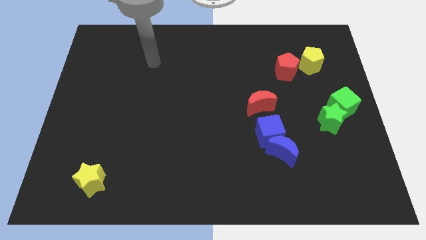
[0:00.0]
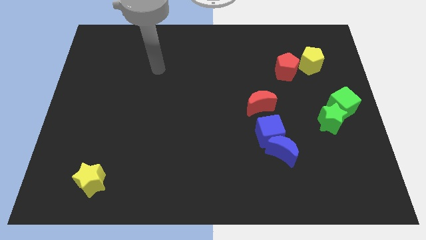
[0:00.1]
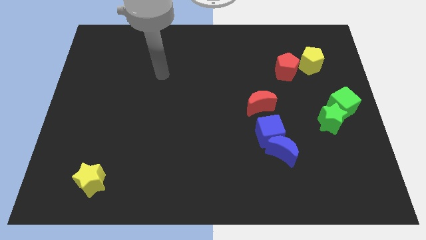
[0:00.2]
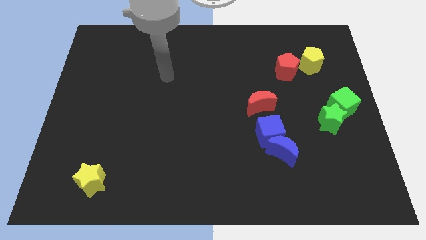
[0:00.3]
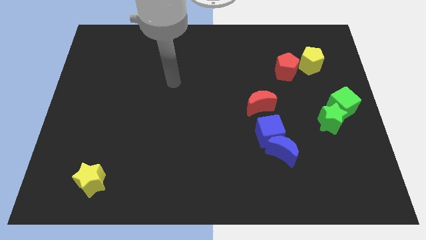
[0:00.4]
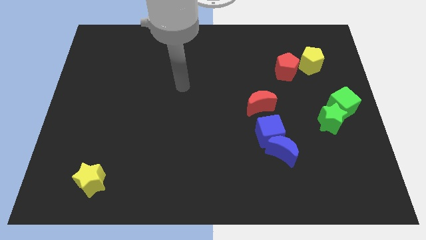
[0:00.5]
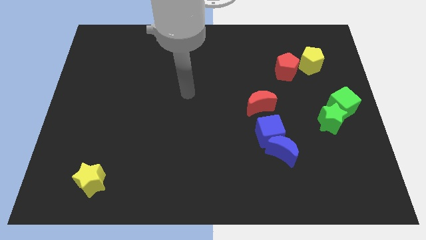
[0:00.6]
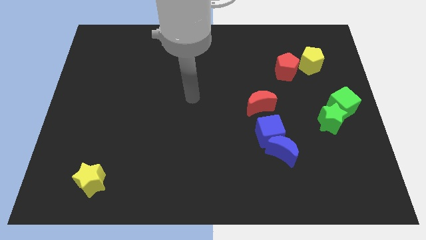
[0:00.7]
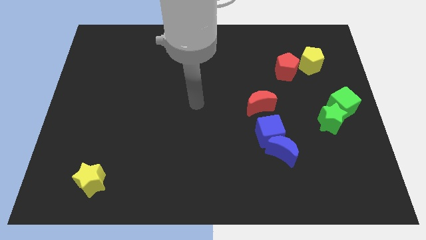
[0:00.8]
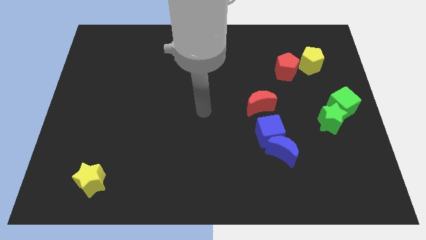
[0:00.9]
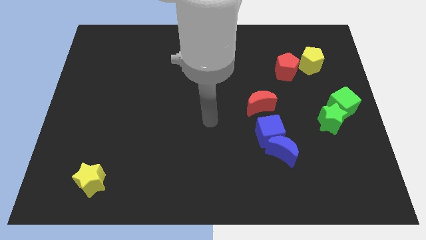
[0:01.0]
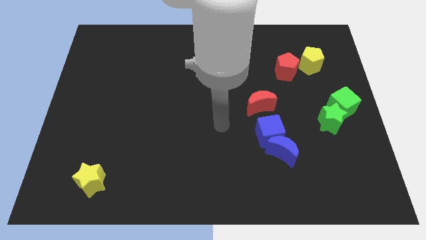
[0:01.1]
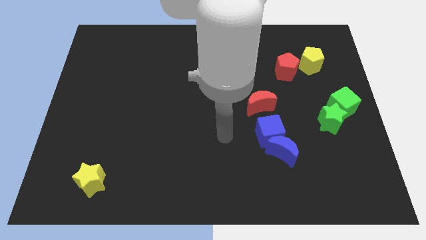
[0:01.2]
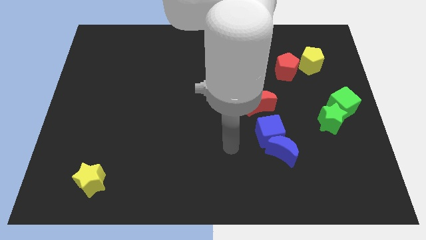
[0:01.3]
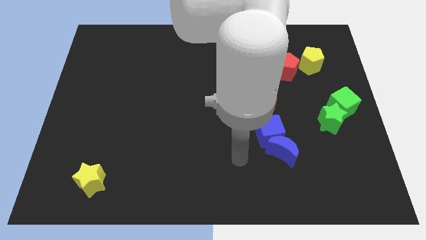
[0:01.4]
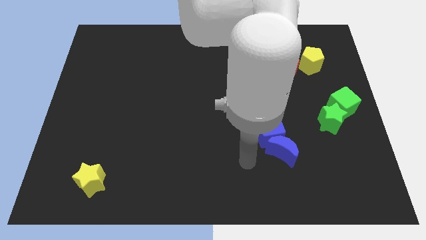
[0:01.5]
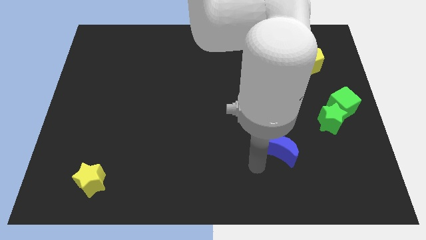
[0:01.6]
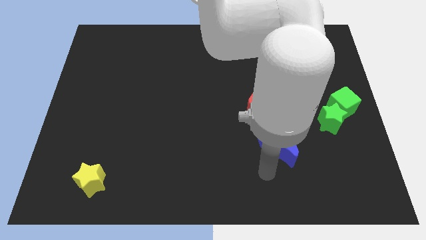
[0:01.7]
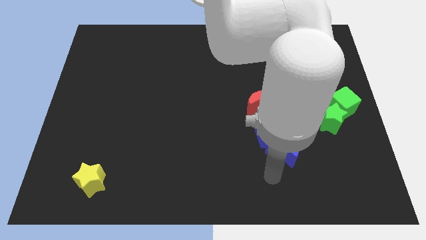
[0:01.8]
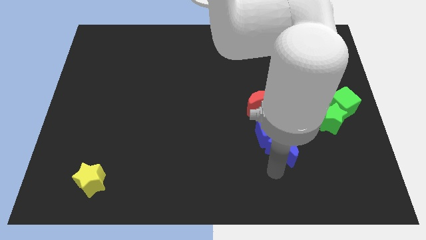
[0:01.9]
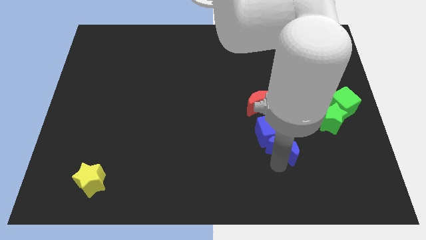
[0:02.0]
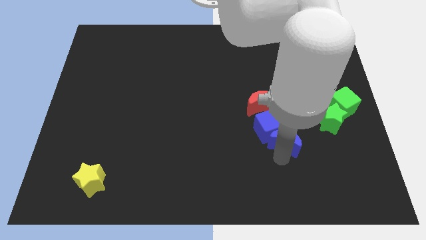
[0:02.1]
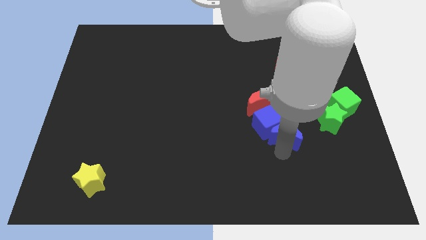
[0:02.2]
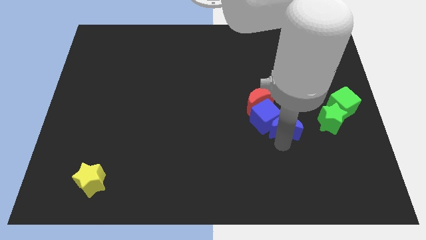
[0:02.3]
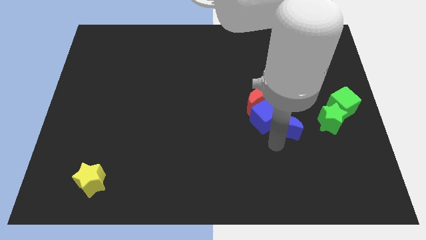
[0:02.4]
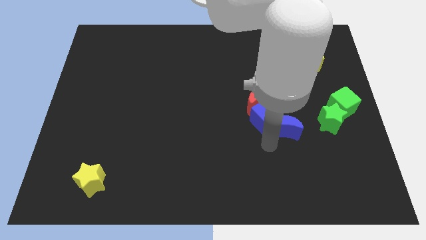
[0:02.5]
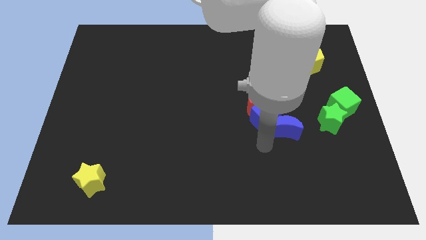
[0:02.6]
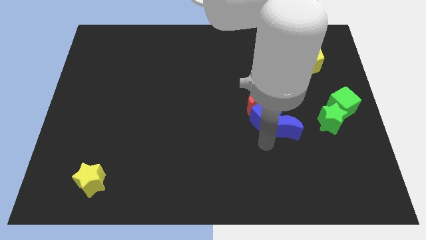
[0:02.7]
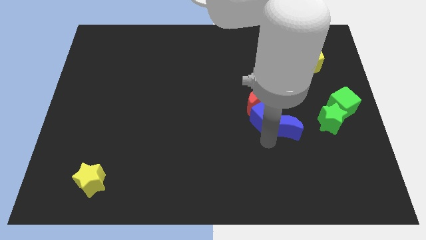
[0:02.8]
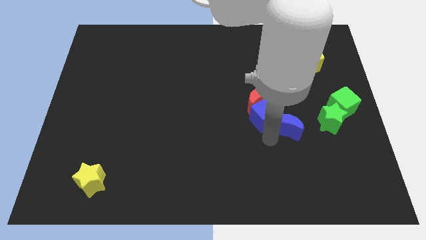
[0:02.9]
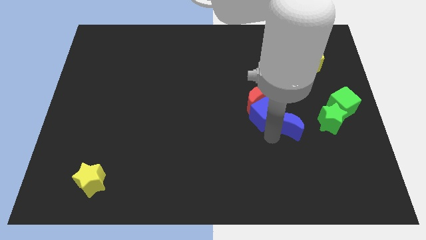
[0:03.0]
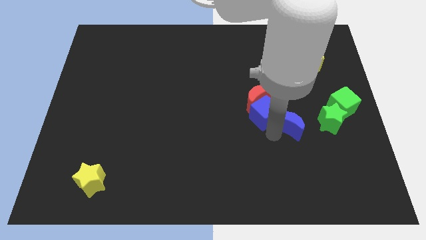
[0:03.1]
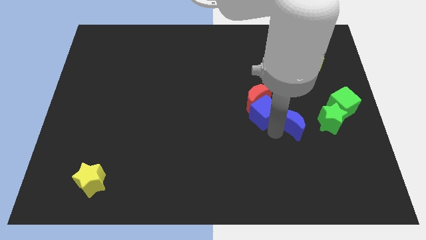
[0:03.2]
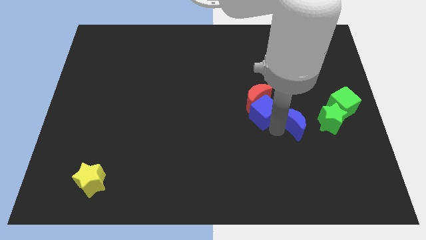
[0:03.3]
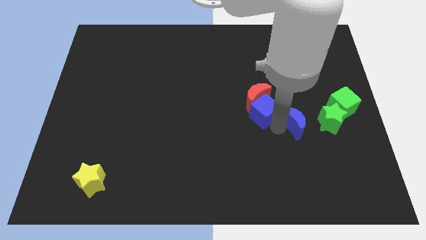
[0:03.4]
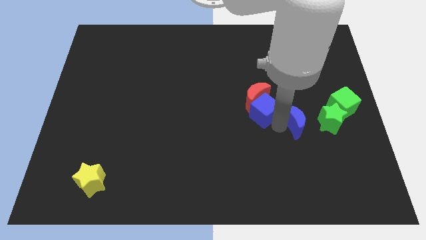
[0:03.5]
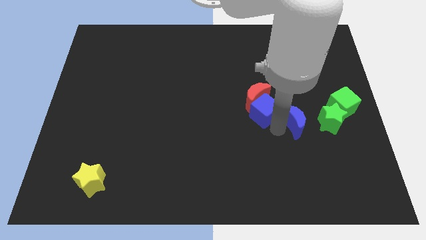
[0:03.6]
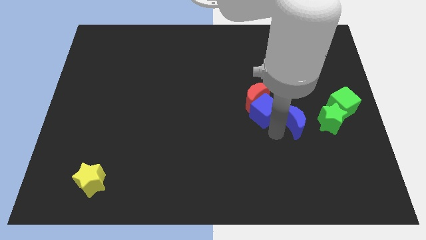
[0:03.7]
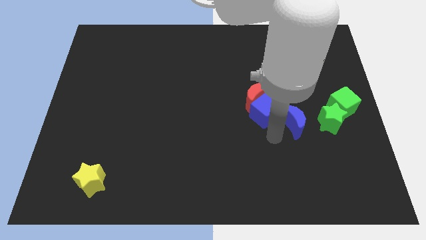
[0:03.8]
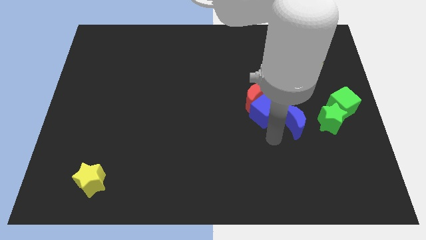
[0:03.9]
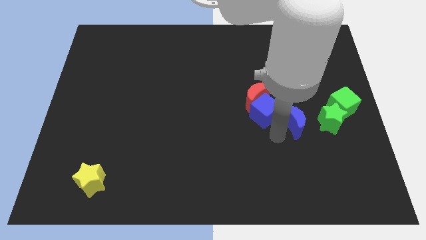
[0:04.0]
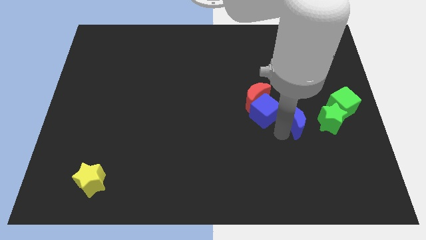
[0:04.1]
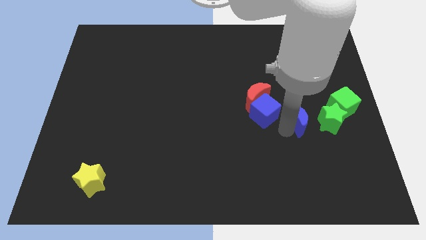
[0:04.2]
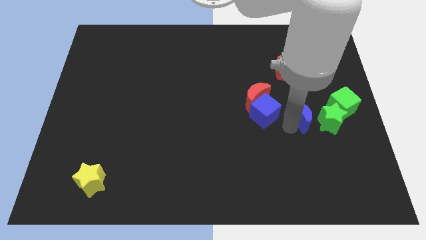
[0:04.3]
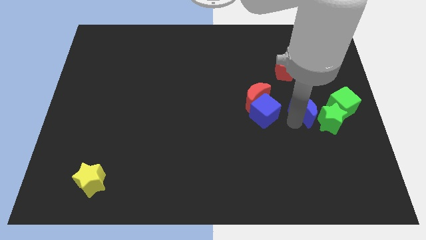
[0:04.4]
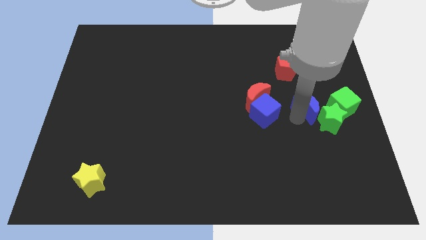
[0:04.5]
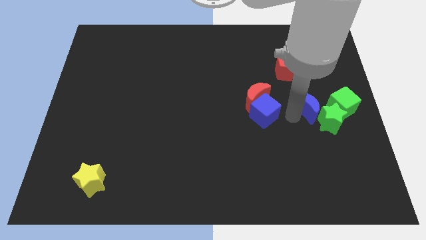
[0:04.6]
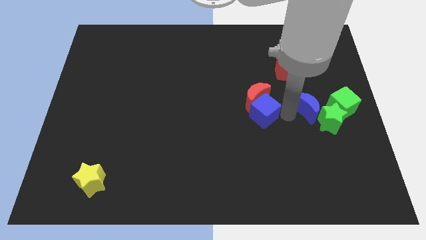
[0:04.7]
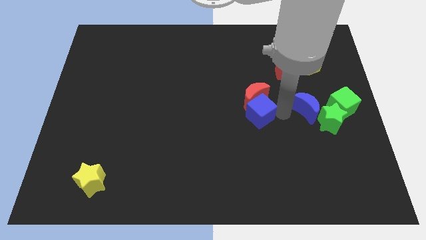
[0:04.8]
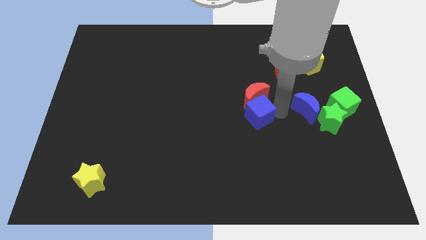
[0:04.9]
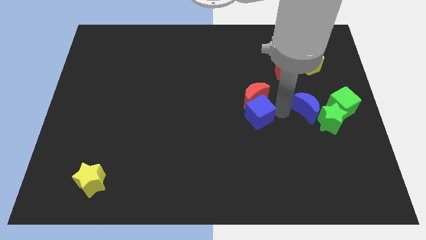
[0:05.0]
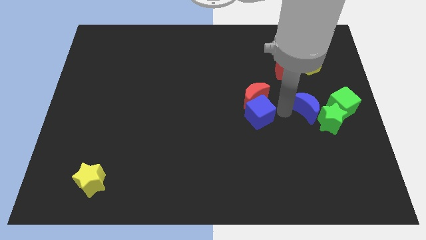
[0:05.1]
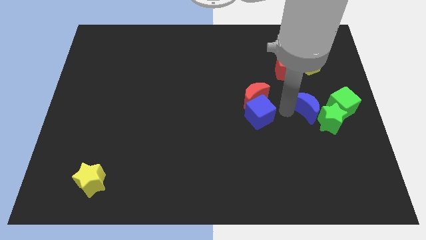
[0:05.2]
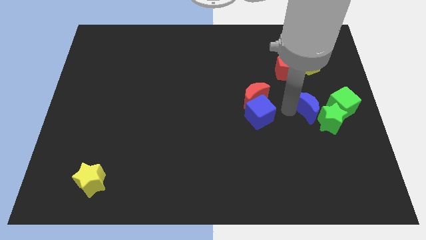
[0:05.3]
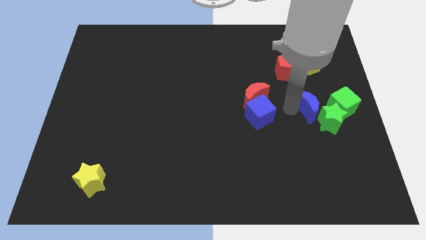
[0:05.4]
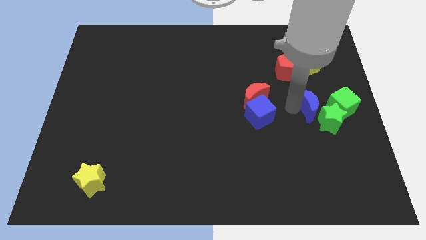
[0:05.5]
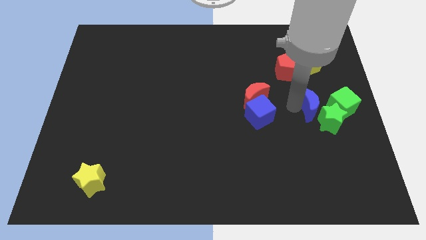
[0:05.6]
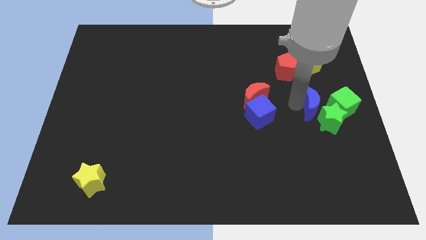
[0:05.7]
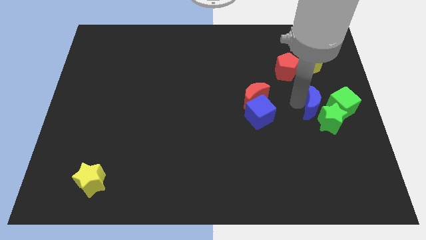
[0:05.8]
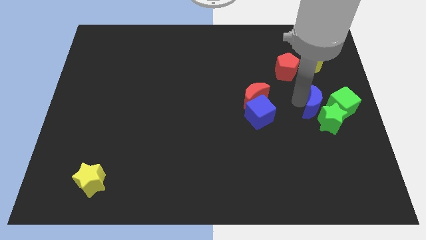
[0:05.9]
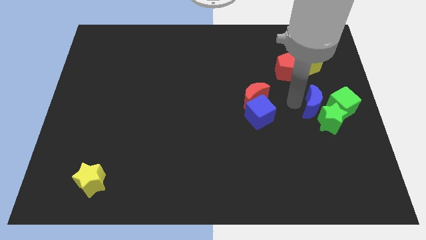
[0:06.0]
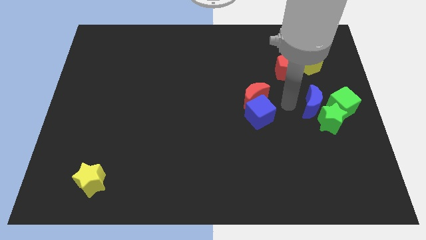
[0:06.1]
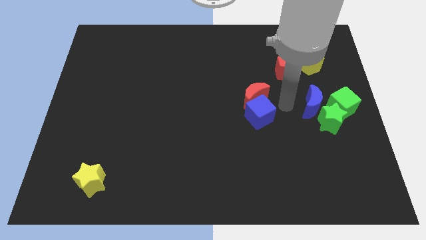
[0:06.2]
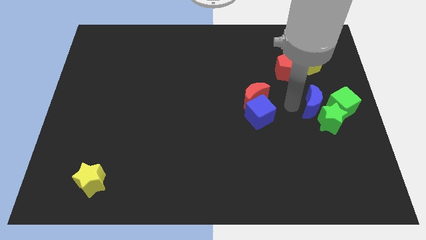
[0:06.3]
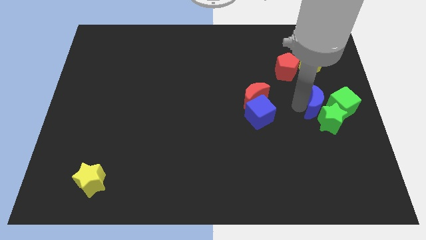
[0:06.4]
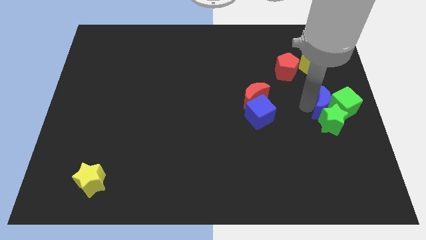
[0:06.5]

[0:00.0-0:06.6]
push the blue moon next to the green cube
